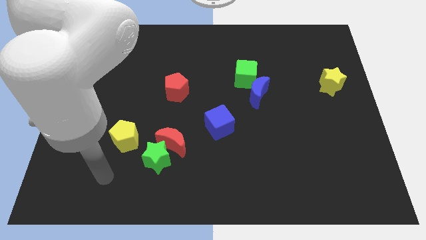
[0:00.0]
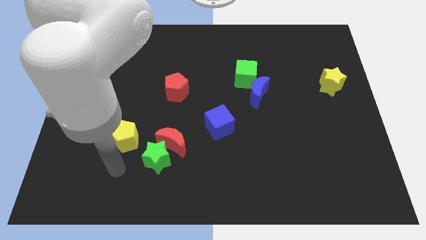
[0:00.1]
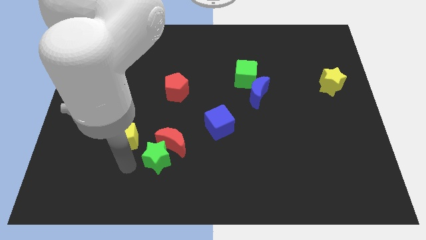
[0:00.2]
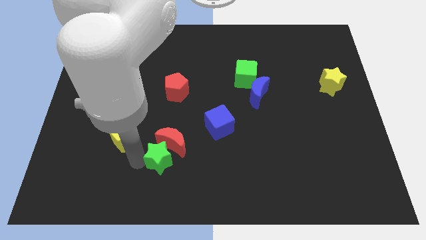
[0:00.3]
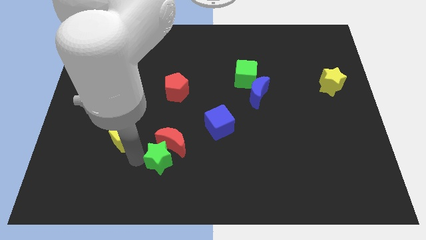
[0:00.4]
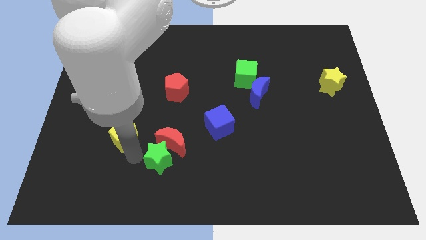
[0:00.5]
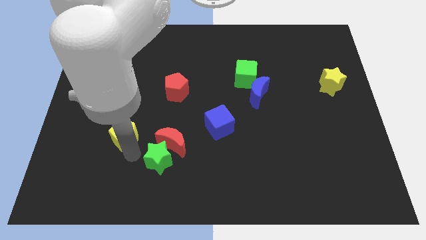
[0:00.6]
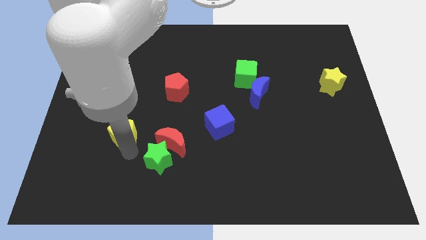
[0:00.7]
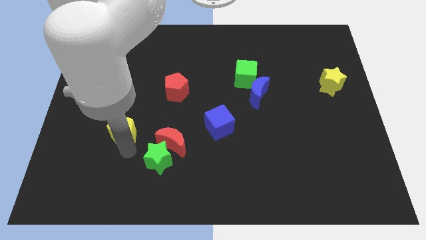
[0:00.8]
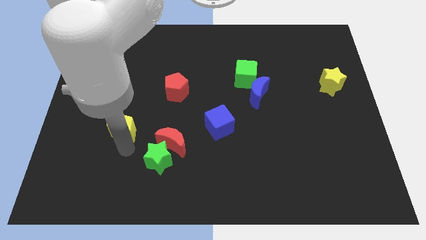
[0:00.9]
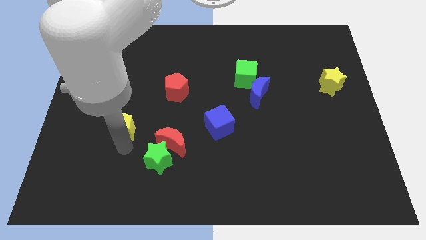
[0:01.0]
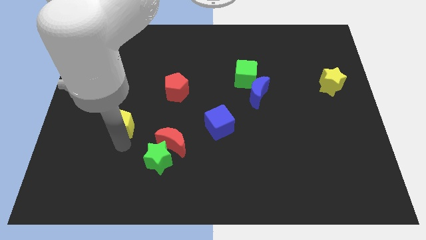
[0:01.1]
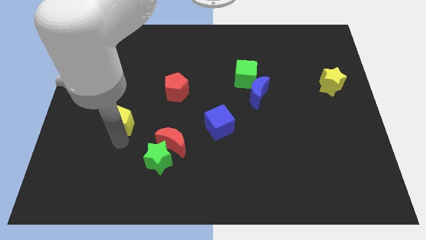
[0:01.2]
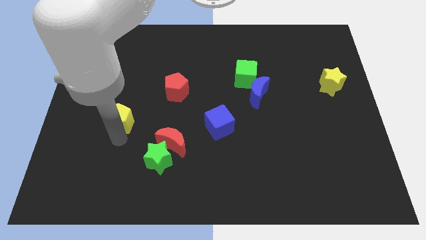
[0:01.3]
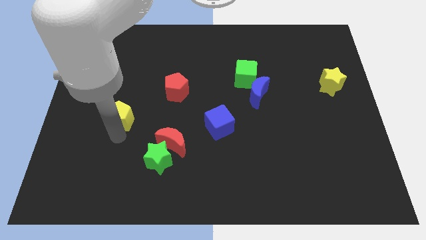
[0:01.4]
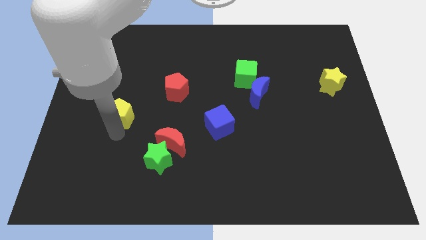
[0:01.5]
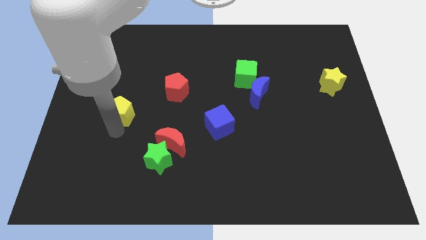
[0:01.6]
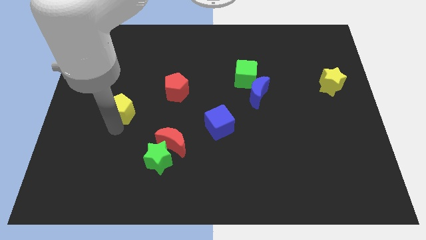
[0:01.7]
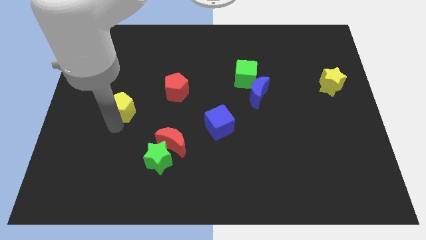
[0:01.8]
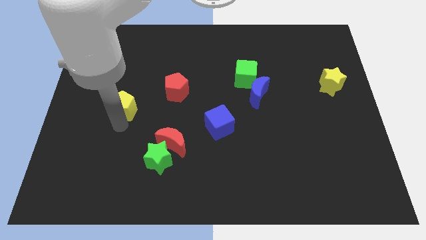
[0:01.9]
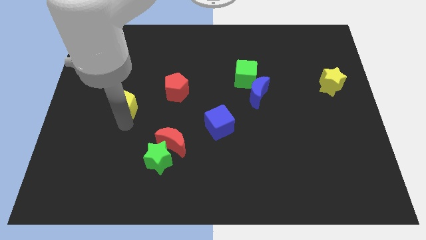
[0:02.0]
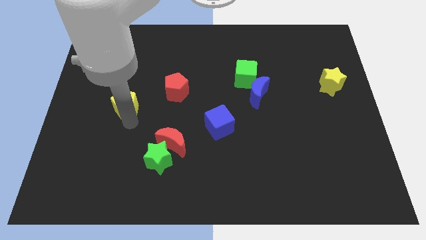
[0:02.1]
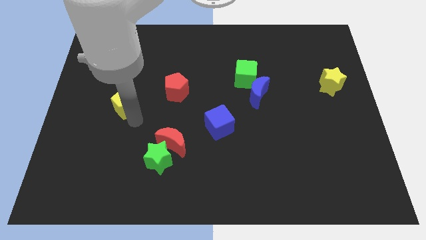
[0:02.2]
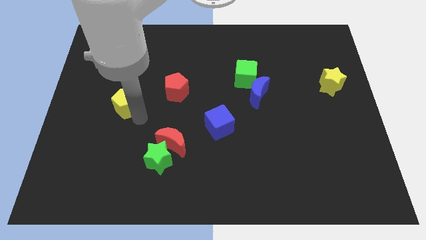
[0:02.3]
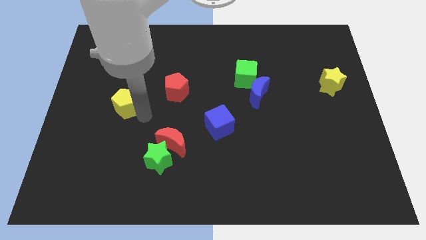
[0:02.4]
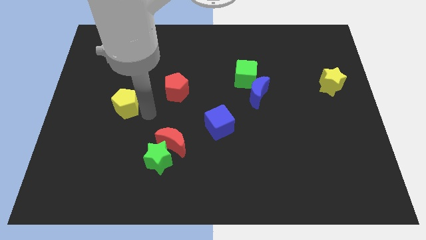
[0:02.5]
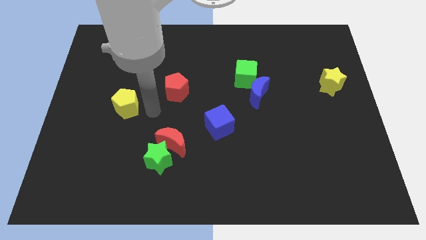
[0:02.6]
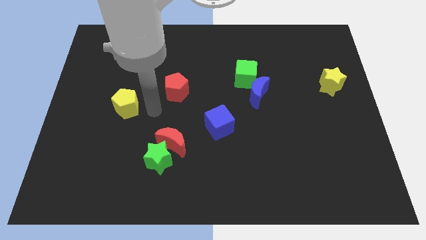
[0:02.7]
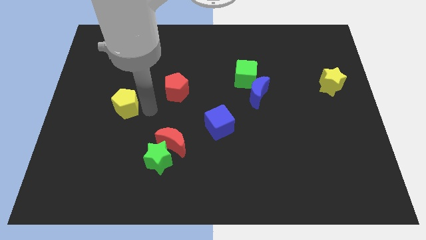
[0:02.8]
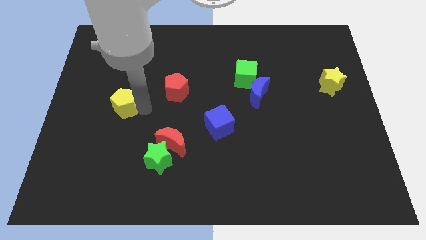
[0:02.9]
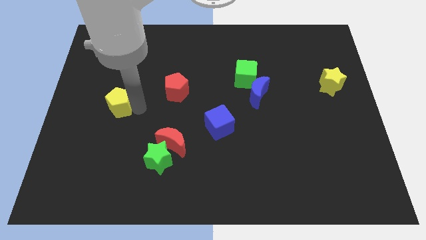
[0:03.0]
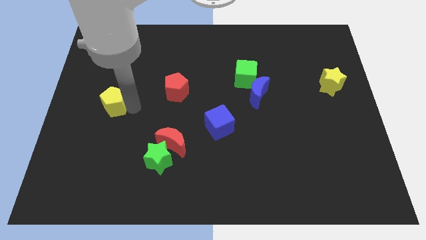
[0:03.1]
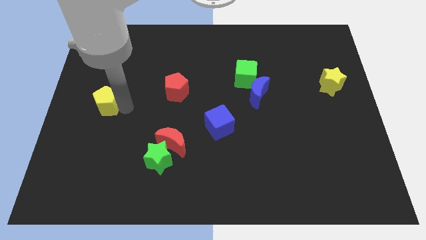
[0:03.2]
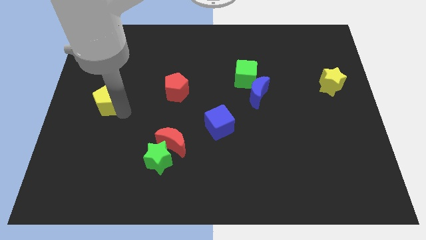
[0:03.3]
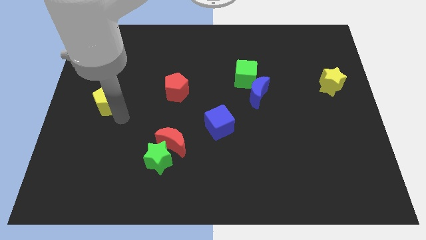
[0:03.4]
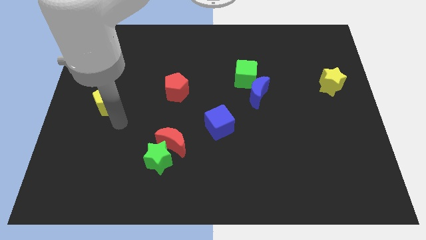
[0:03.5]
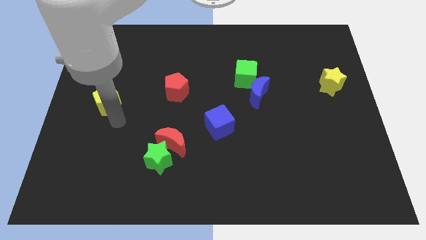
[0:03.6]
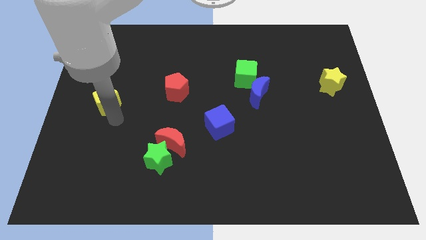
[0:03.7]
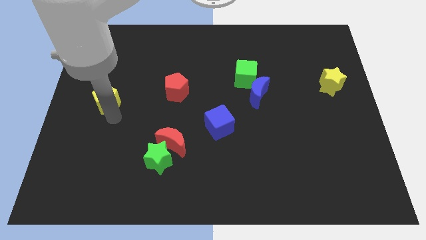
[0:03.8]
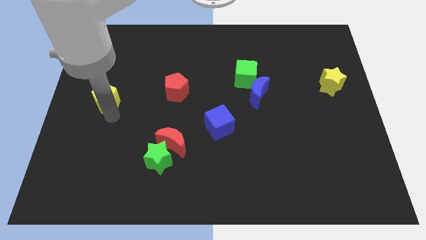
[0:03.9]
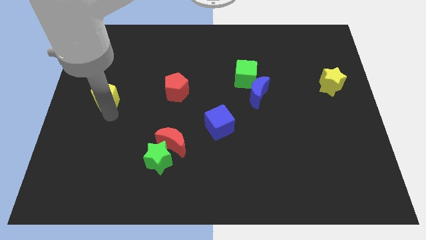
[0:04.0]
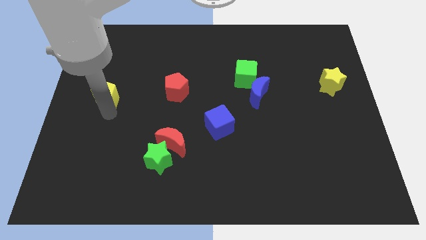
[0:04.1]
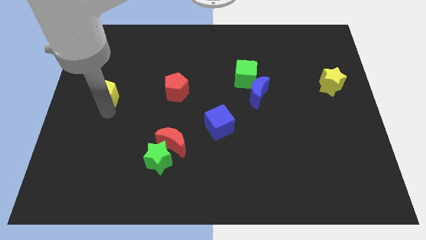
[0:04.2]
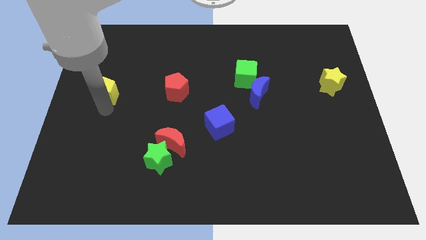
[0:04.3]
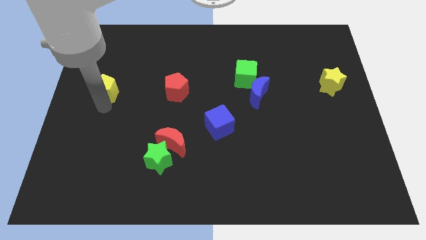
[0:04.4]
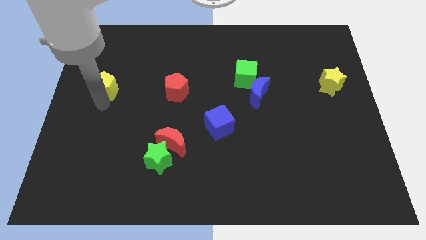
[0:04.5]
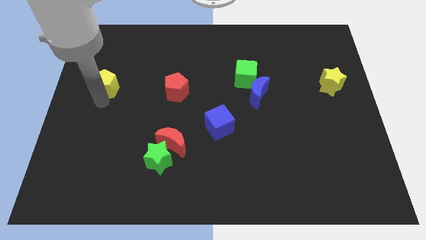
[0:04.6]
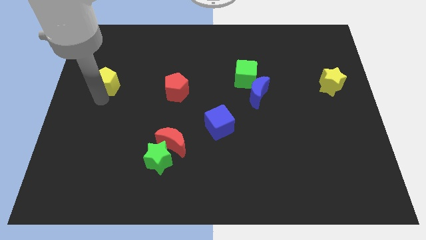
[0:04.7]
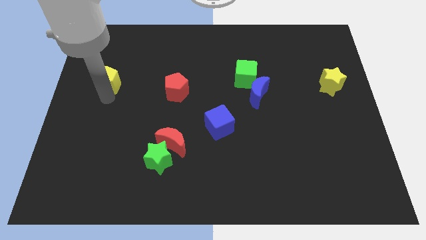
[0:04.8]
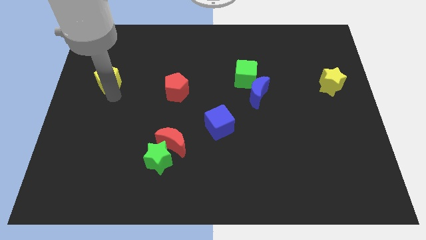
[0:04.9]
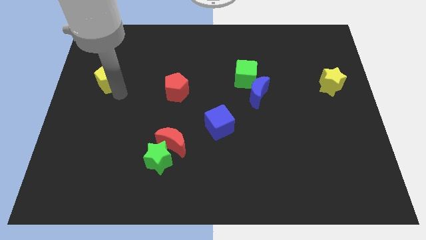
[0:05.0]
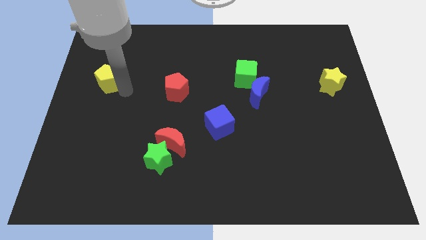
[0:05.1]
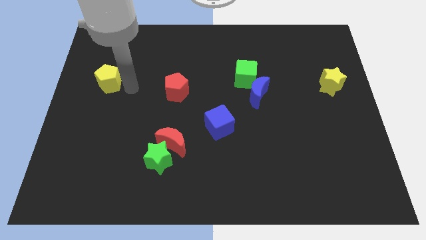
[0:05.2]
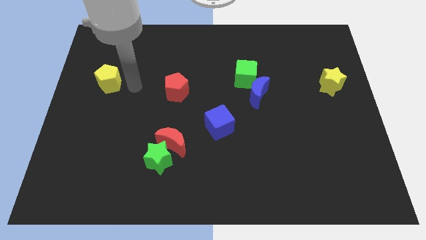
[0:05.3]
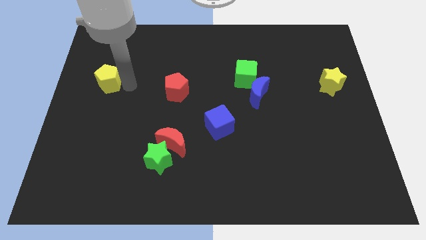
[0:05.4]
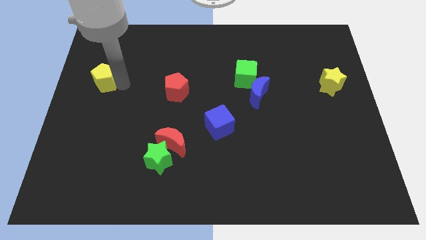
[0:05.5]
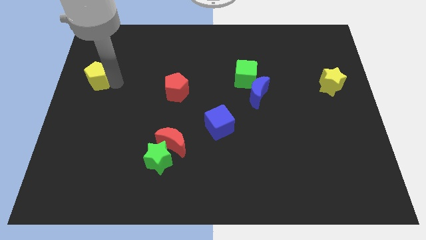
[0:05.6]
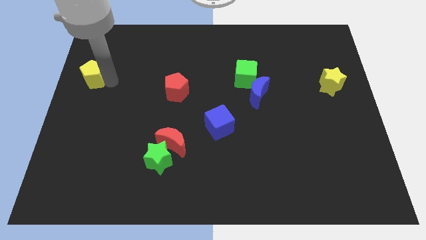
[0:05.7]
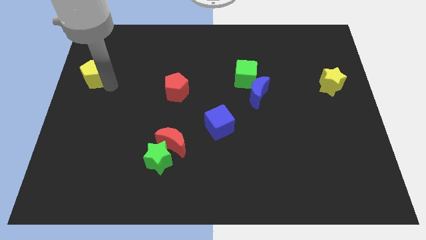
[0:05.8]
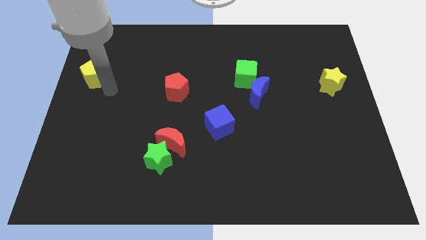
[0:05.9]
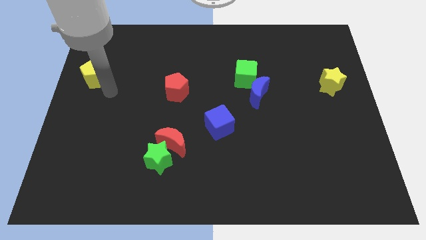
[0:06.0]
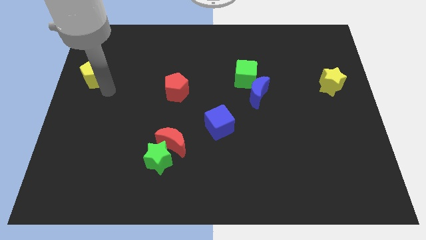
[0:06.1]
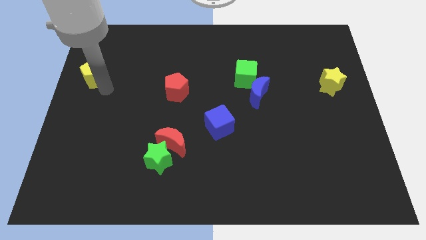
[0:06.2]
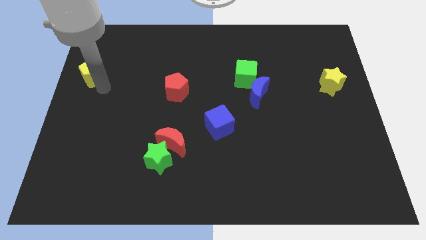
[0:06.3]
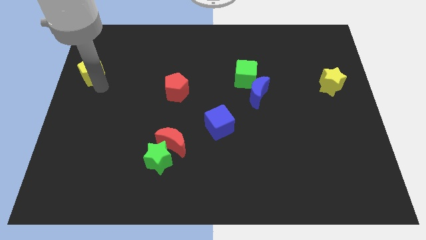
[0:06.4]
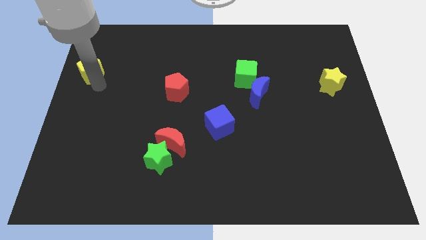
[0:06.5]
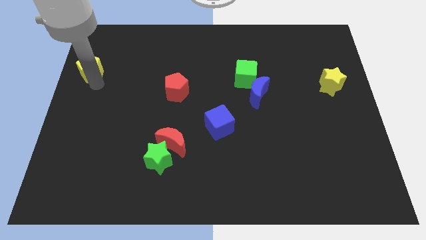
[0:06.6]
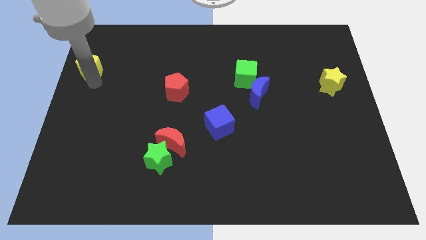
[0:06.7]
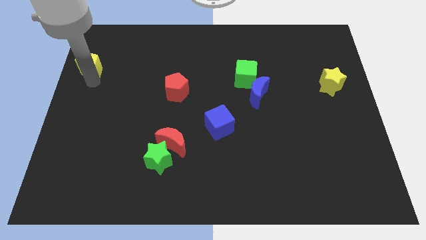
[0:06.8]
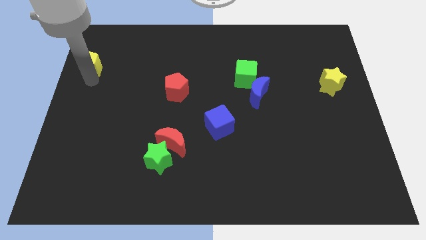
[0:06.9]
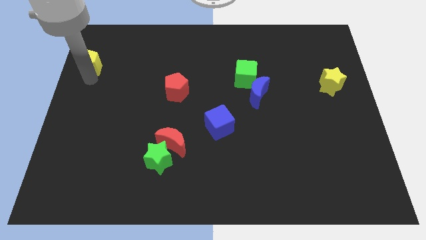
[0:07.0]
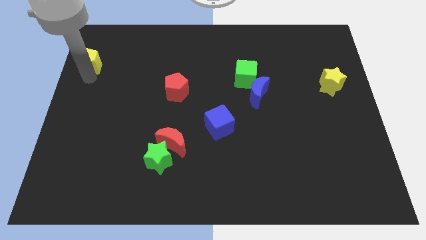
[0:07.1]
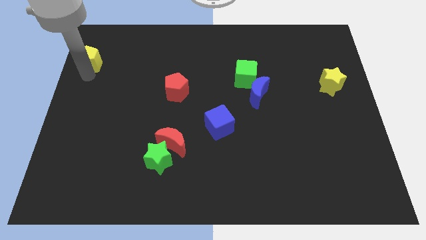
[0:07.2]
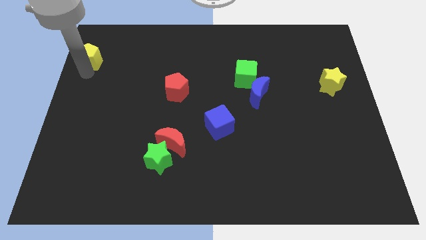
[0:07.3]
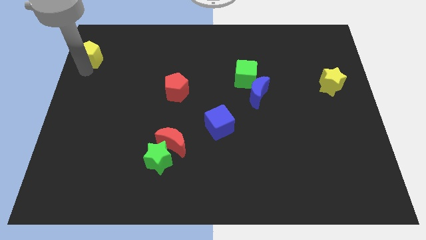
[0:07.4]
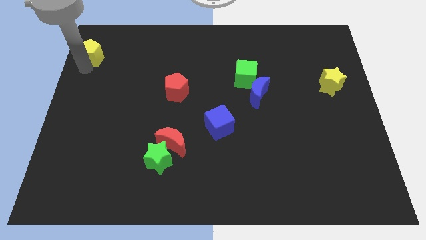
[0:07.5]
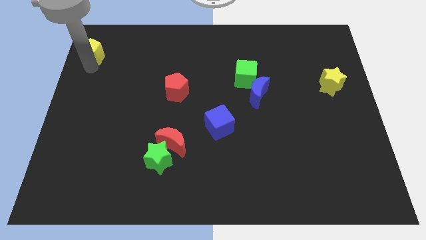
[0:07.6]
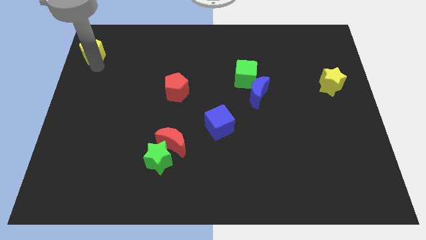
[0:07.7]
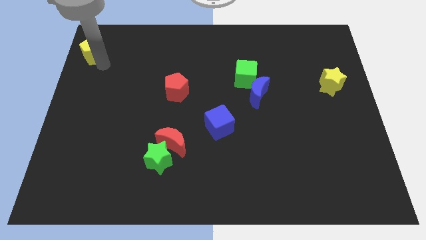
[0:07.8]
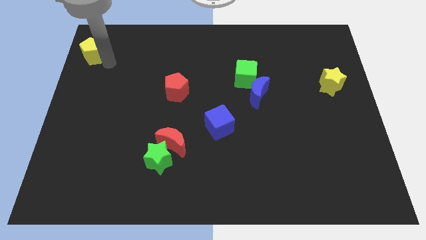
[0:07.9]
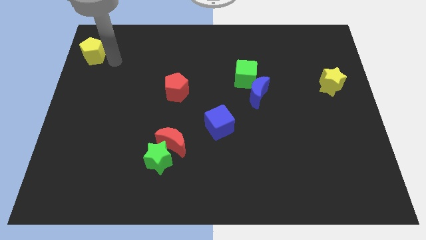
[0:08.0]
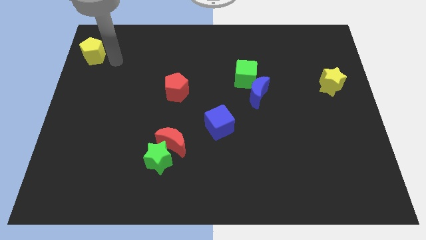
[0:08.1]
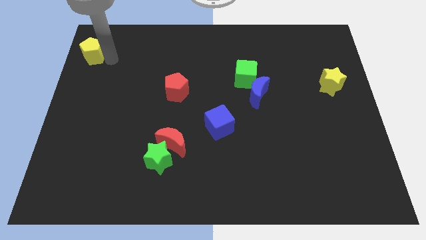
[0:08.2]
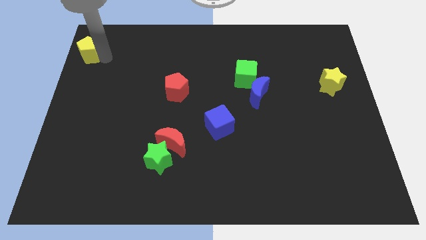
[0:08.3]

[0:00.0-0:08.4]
slide the yellow pentagon to the top left corner
